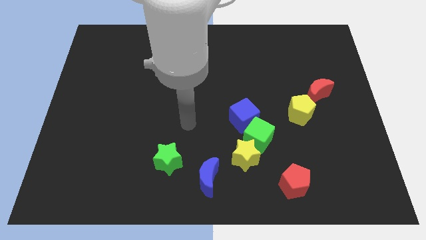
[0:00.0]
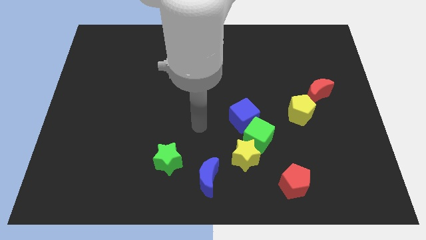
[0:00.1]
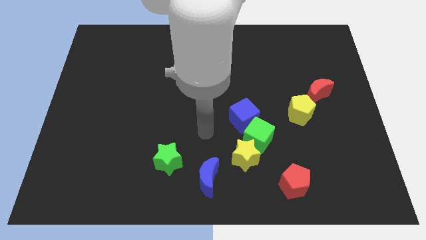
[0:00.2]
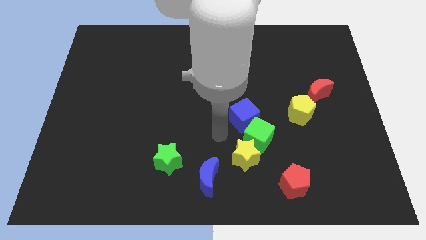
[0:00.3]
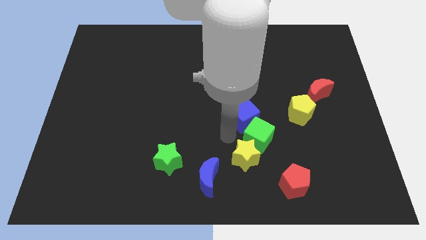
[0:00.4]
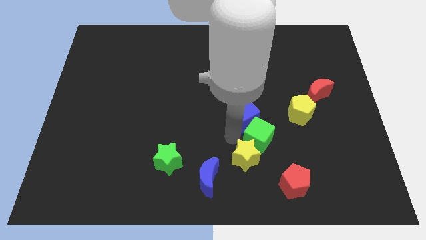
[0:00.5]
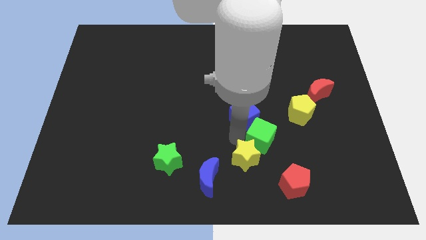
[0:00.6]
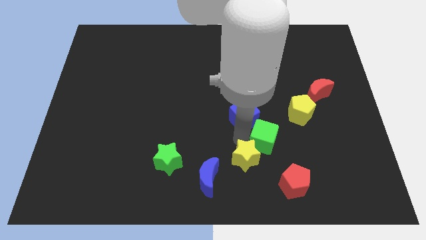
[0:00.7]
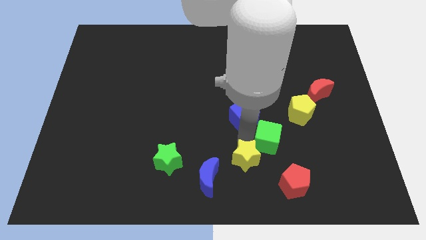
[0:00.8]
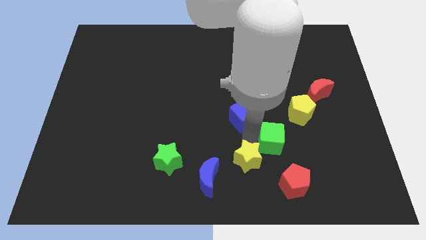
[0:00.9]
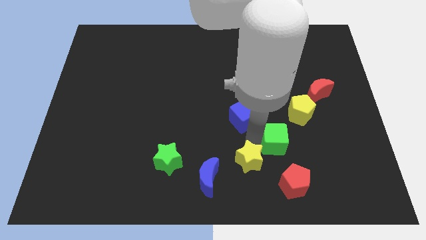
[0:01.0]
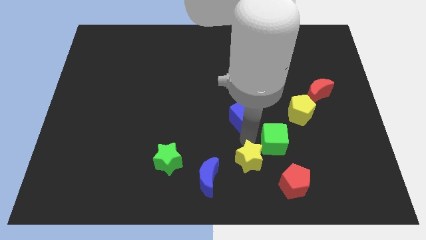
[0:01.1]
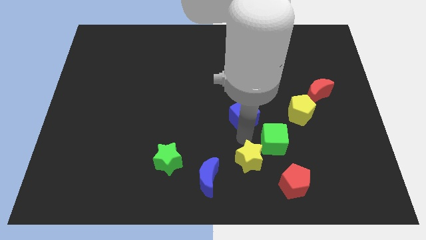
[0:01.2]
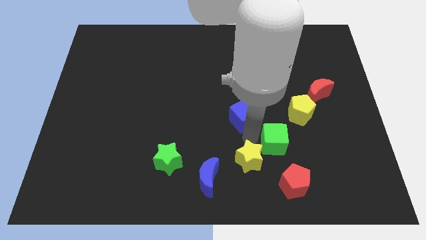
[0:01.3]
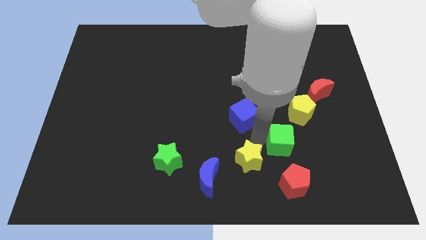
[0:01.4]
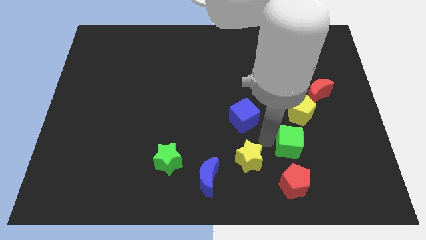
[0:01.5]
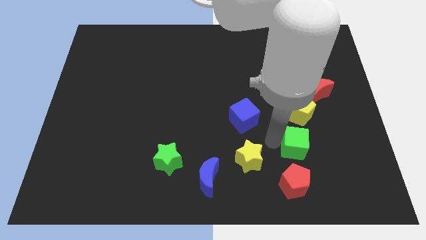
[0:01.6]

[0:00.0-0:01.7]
pull the green cube apart from the yellow star and blue cube

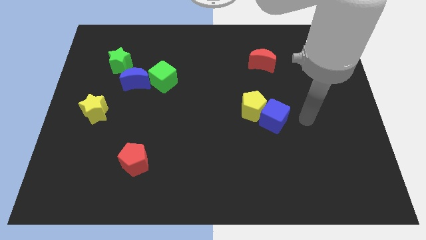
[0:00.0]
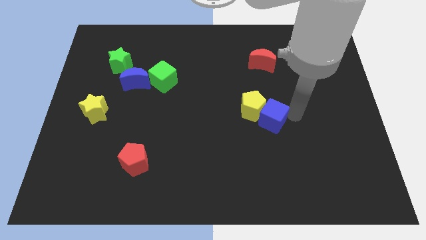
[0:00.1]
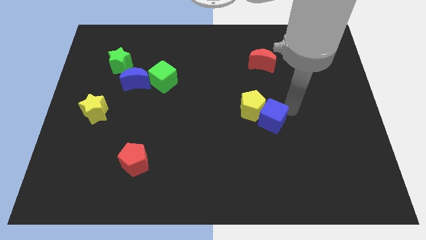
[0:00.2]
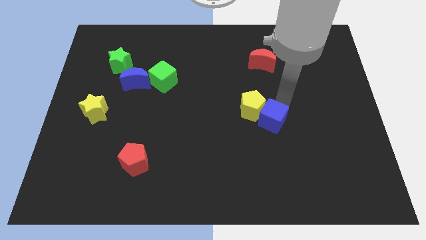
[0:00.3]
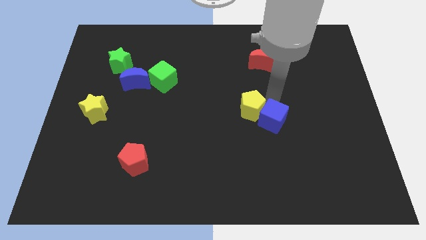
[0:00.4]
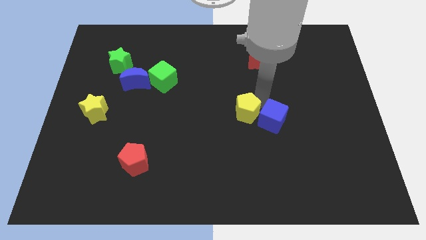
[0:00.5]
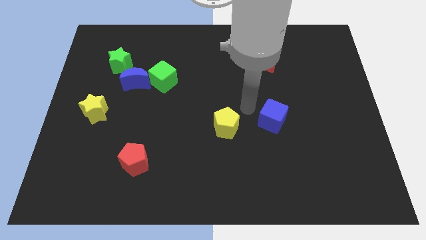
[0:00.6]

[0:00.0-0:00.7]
pull the blue cube apart from the yellow pentagon

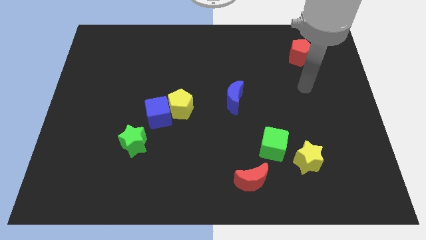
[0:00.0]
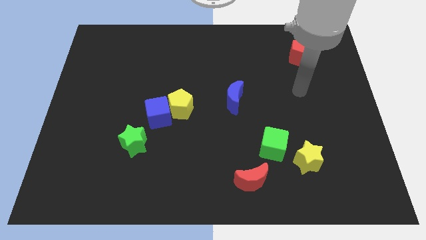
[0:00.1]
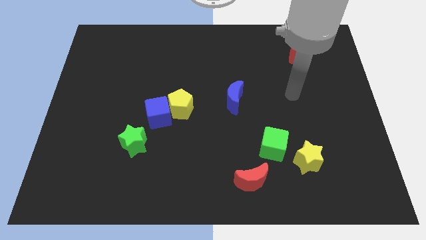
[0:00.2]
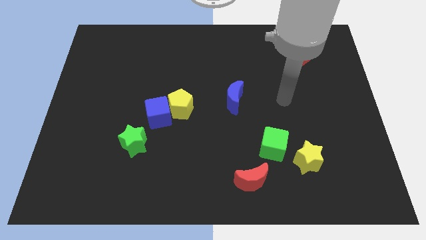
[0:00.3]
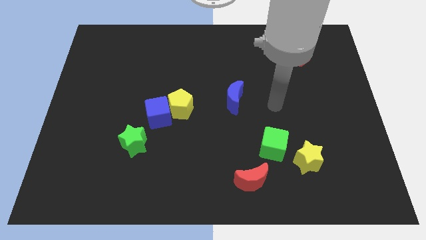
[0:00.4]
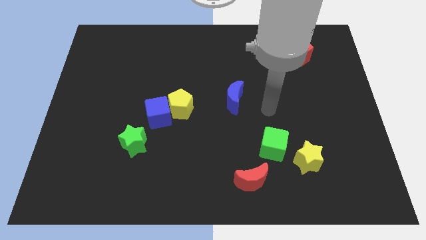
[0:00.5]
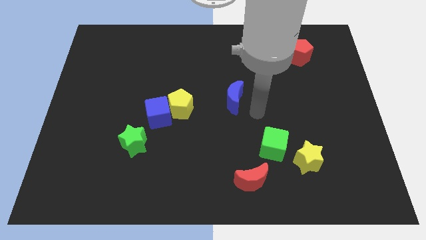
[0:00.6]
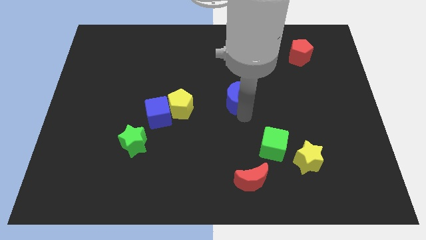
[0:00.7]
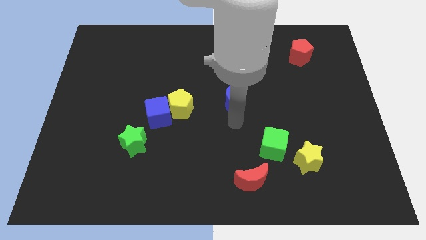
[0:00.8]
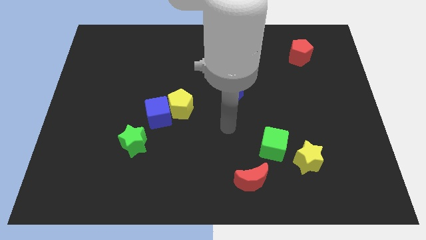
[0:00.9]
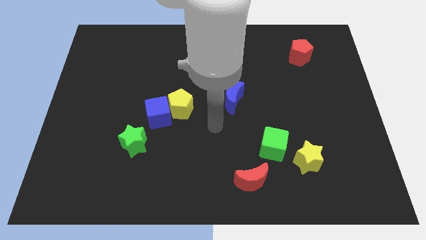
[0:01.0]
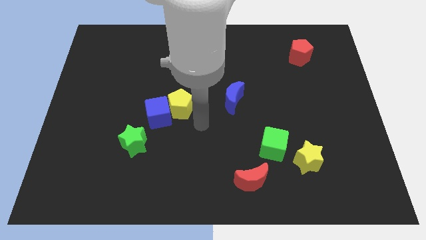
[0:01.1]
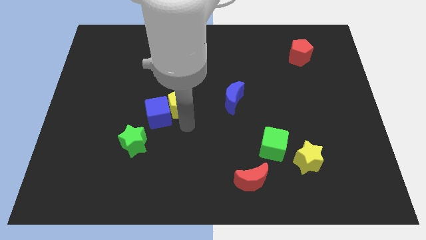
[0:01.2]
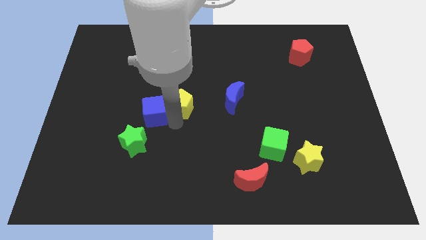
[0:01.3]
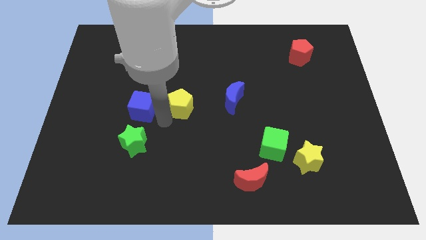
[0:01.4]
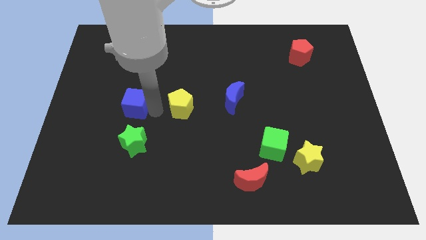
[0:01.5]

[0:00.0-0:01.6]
pull the yellow pentagon apart from the blue cube

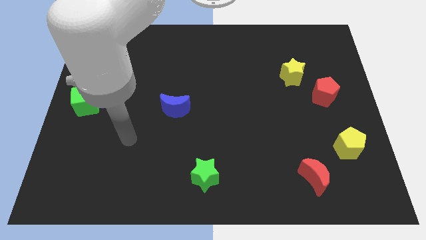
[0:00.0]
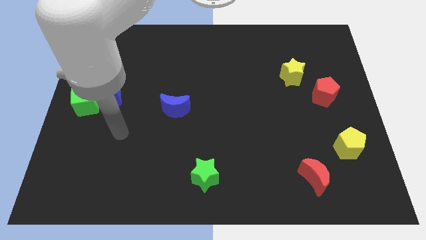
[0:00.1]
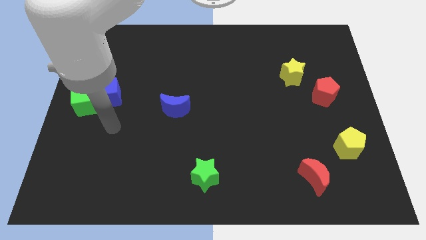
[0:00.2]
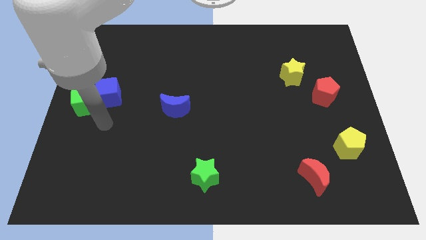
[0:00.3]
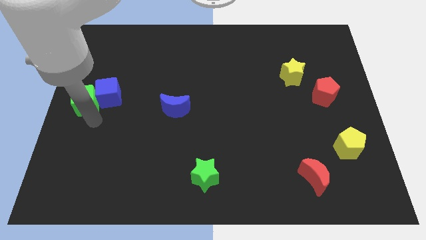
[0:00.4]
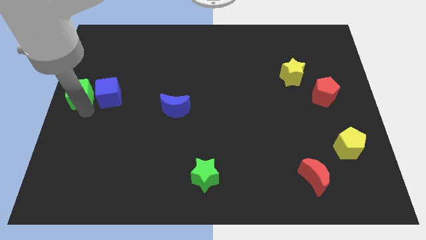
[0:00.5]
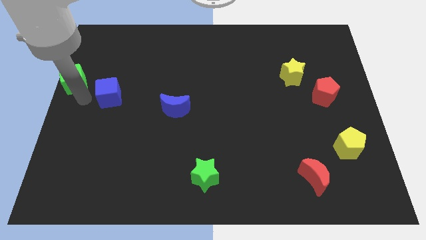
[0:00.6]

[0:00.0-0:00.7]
pull the blue cube apart from the green cube

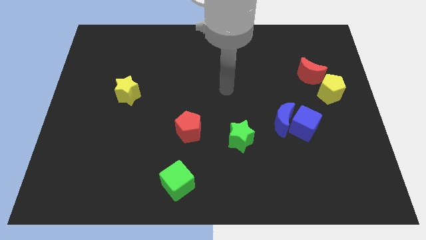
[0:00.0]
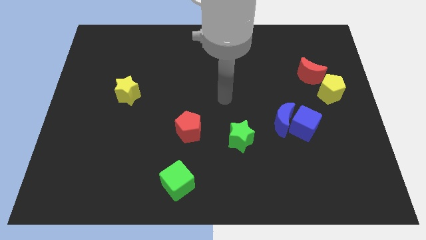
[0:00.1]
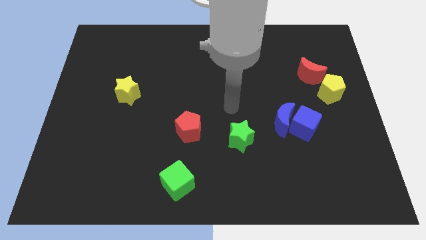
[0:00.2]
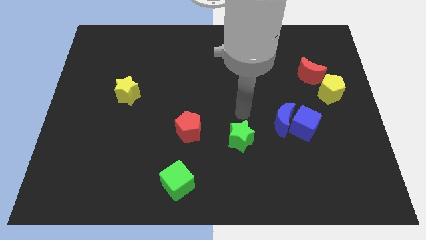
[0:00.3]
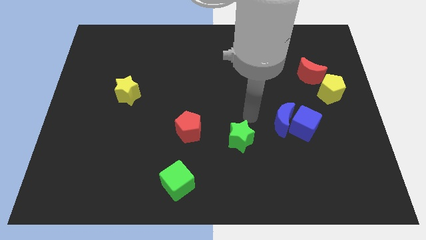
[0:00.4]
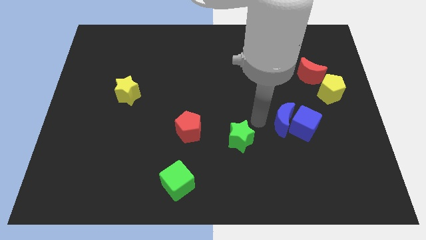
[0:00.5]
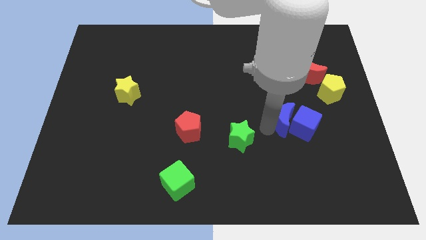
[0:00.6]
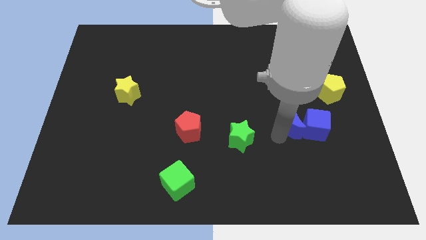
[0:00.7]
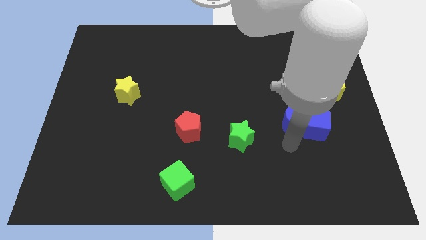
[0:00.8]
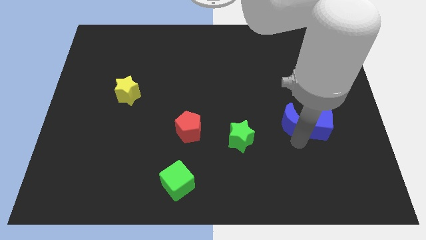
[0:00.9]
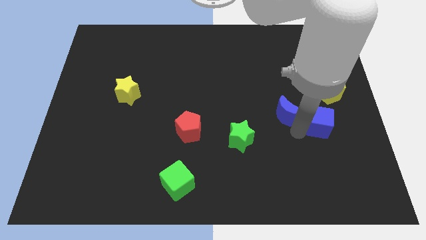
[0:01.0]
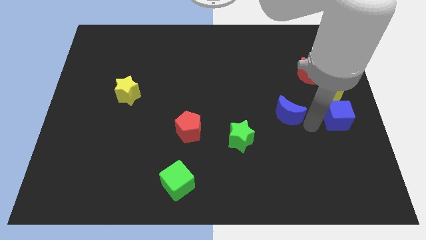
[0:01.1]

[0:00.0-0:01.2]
move the blue moon away from the blue cube

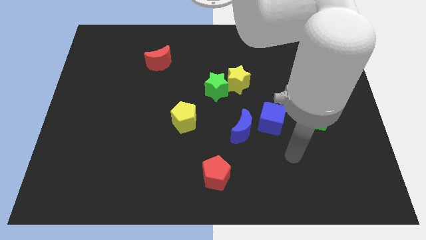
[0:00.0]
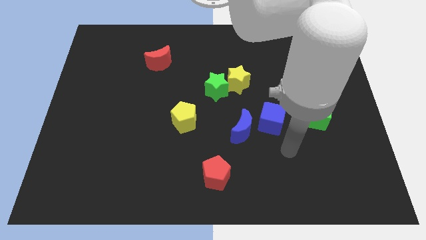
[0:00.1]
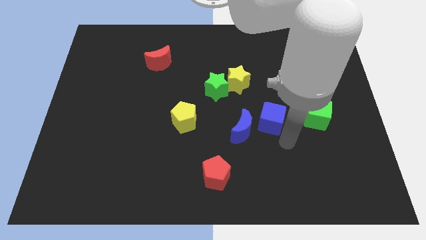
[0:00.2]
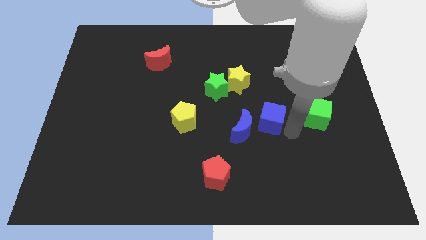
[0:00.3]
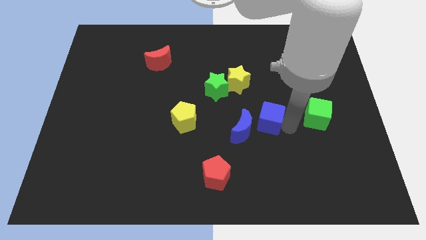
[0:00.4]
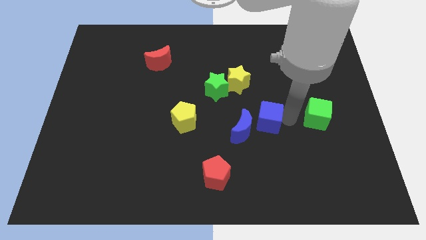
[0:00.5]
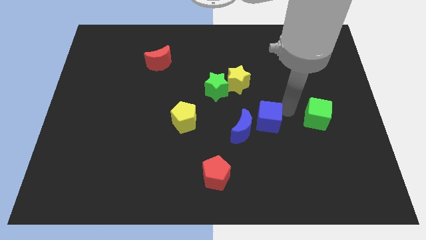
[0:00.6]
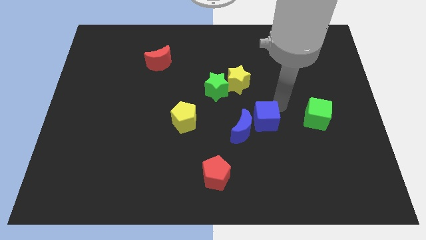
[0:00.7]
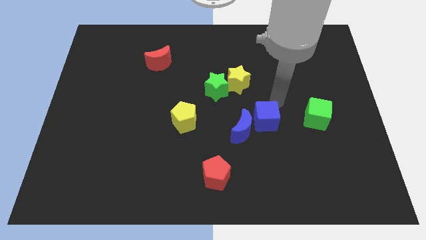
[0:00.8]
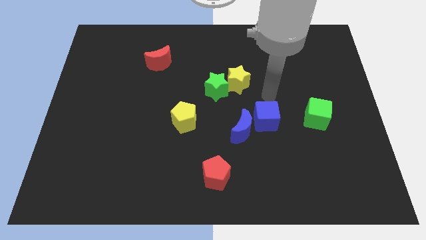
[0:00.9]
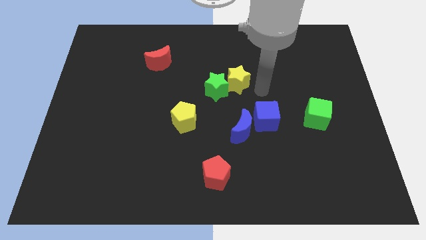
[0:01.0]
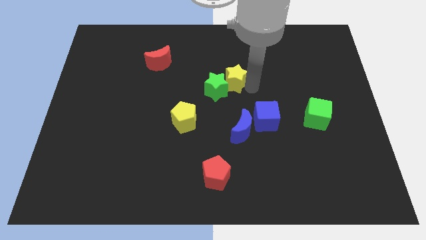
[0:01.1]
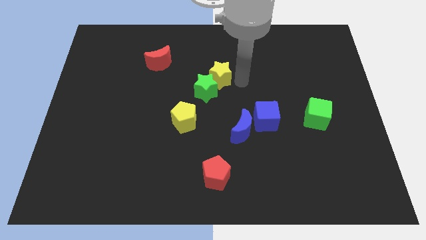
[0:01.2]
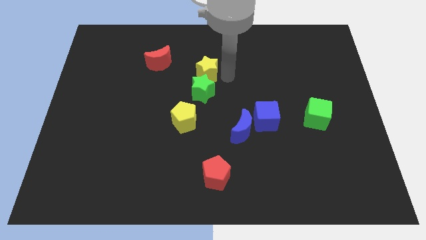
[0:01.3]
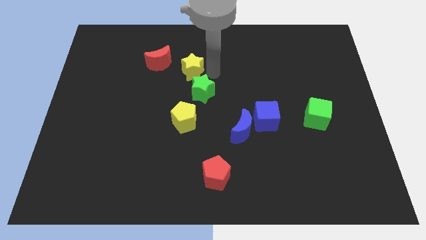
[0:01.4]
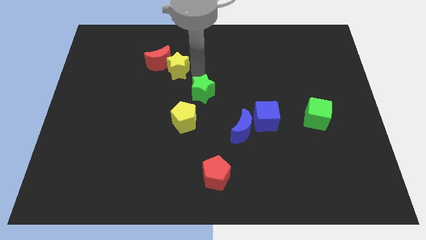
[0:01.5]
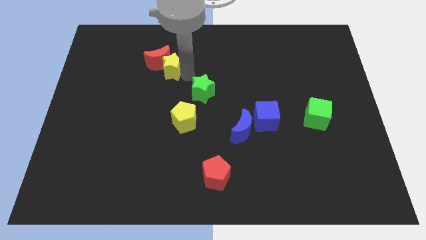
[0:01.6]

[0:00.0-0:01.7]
move the green star away from the yellow star

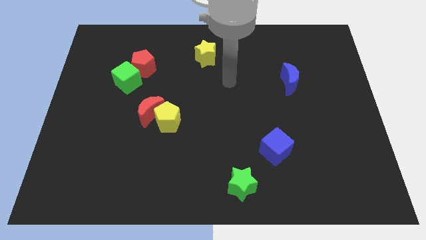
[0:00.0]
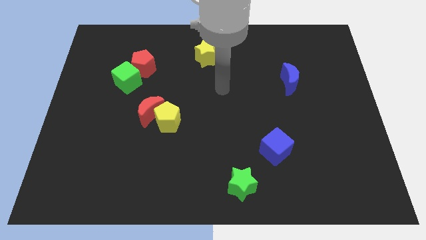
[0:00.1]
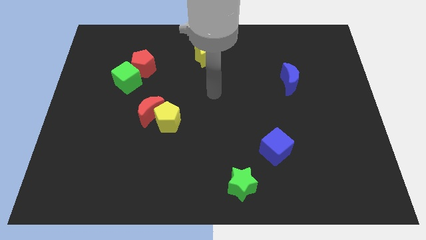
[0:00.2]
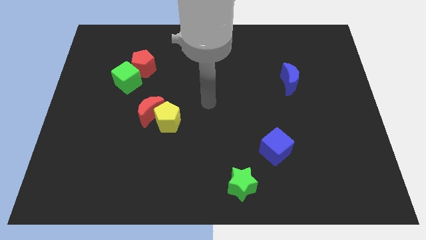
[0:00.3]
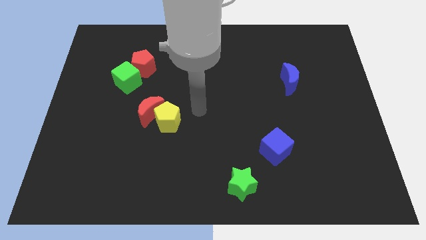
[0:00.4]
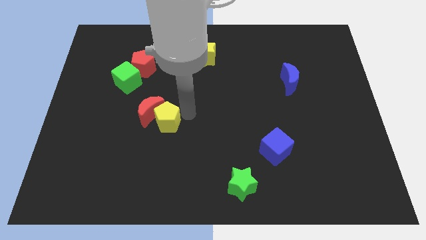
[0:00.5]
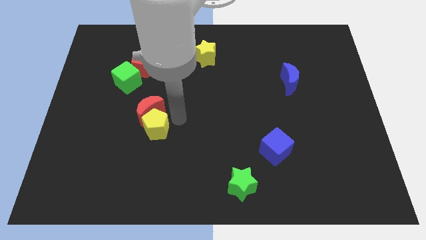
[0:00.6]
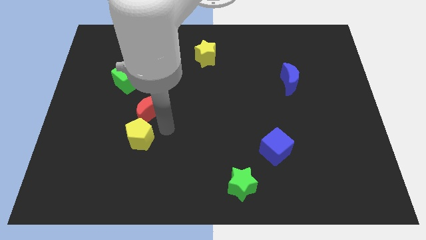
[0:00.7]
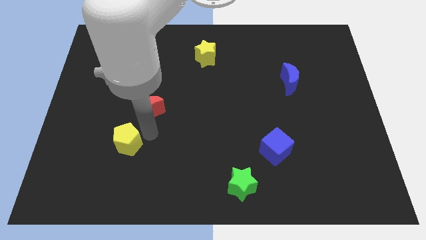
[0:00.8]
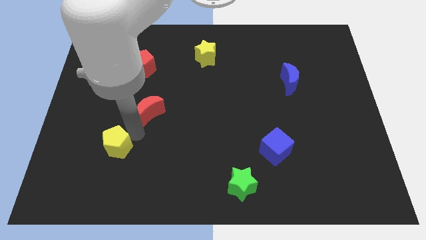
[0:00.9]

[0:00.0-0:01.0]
separate the red moon from the yellow pentagon

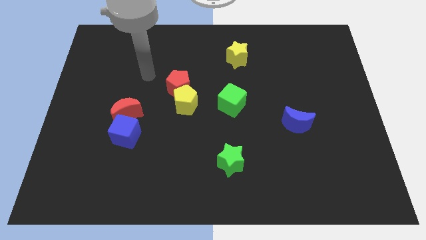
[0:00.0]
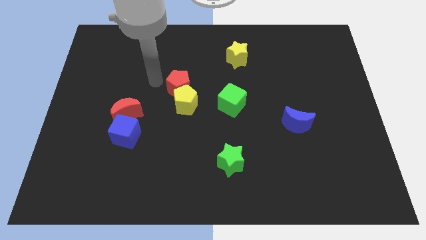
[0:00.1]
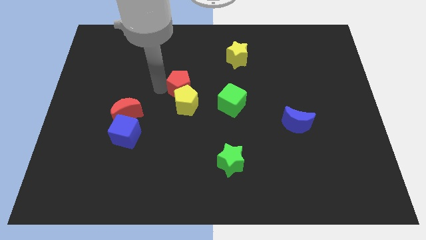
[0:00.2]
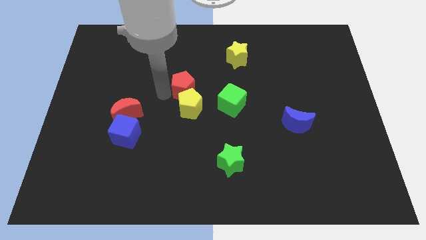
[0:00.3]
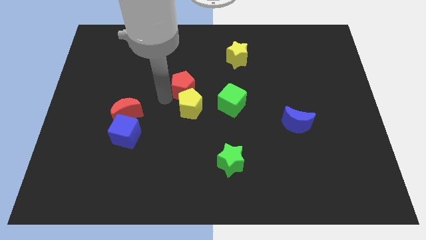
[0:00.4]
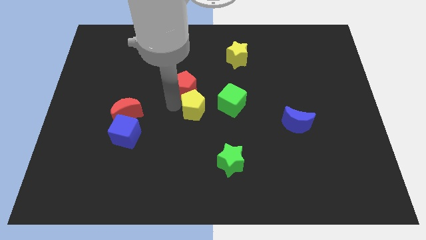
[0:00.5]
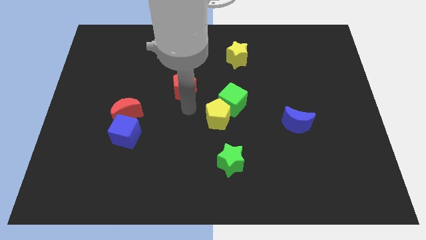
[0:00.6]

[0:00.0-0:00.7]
pull the red pentagon apart from the yellow pentagon

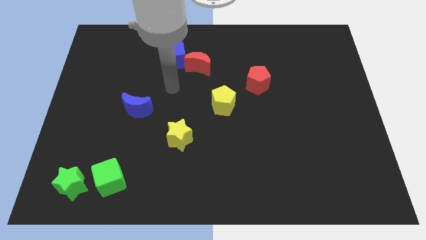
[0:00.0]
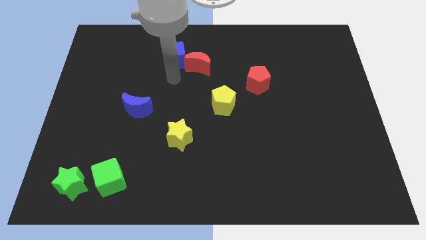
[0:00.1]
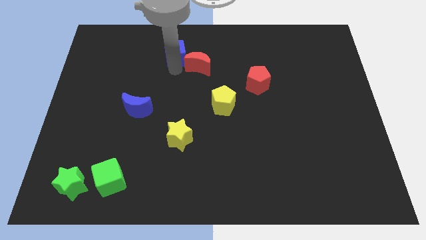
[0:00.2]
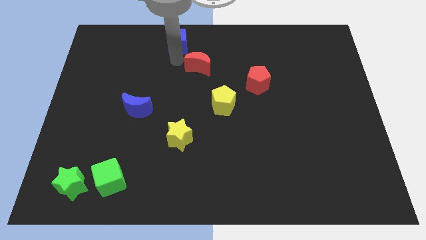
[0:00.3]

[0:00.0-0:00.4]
move the red moon away from the blue cube
